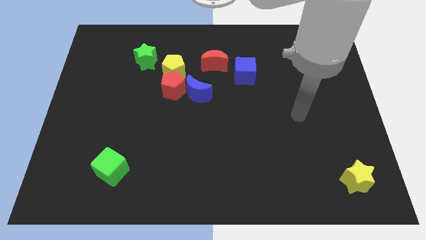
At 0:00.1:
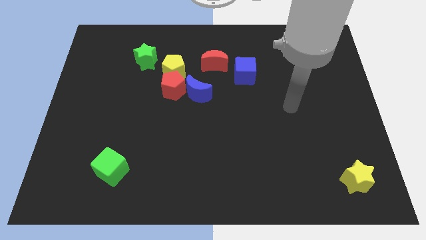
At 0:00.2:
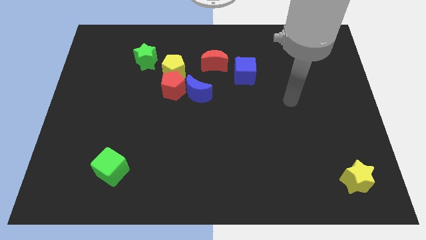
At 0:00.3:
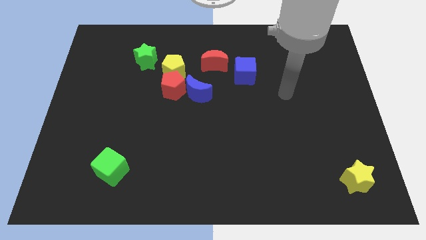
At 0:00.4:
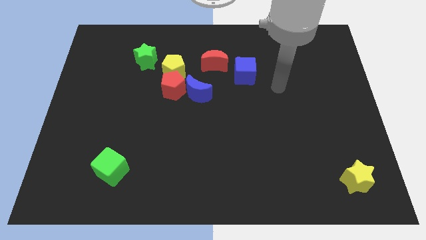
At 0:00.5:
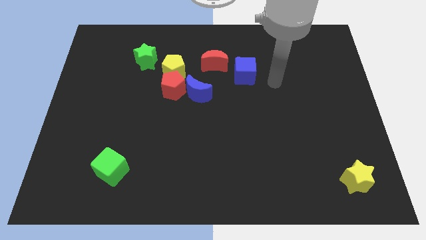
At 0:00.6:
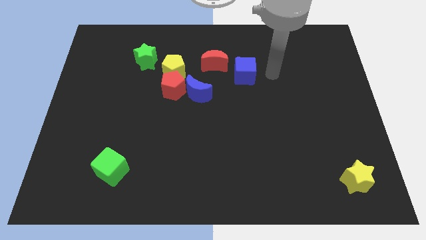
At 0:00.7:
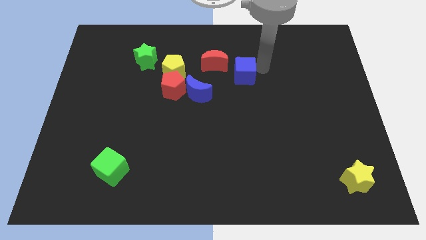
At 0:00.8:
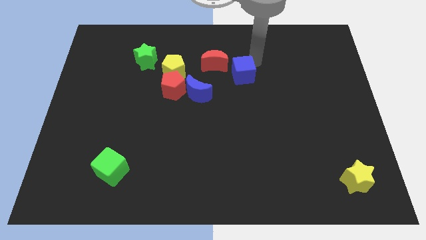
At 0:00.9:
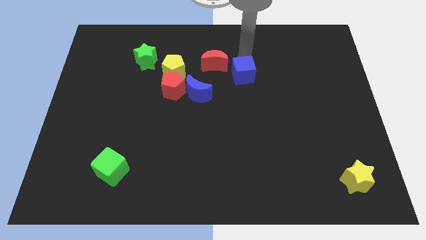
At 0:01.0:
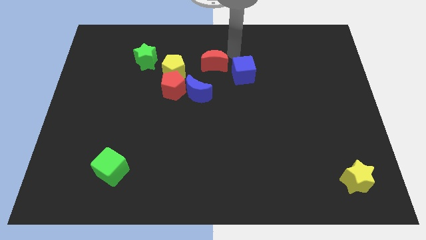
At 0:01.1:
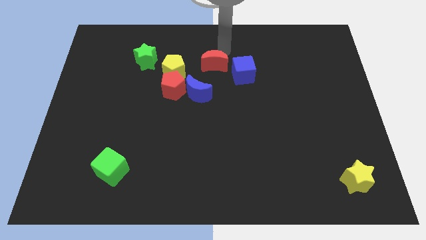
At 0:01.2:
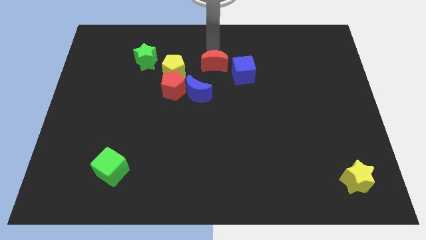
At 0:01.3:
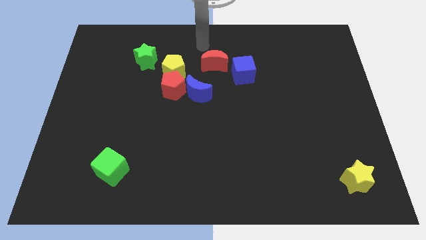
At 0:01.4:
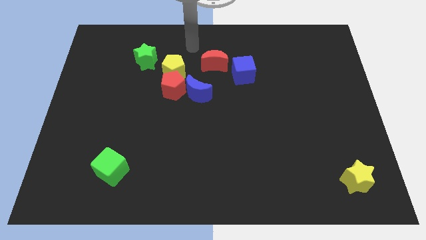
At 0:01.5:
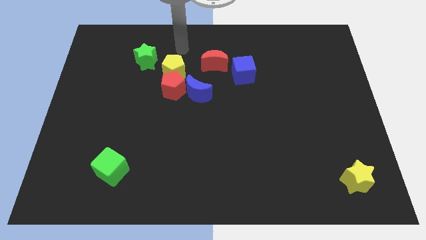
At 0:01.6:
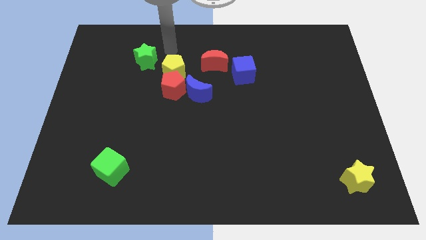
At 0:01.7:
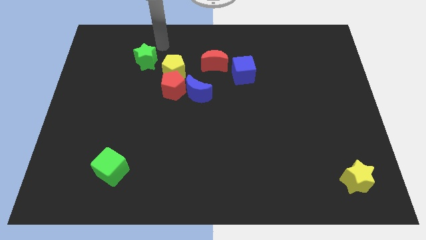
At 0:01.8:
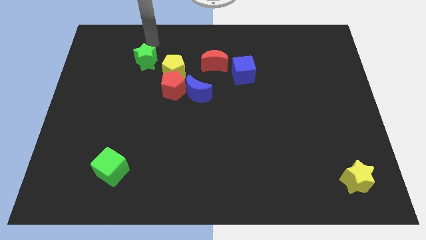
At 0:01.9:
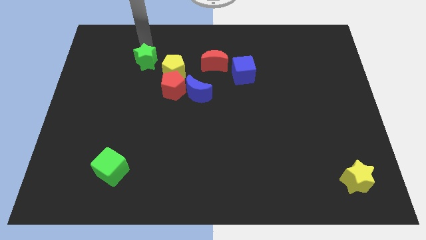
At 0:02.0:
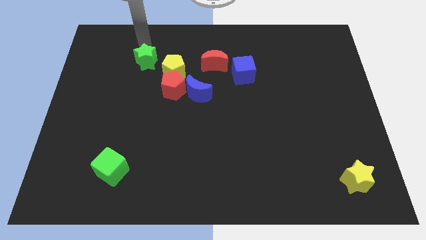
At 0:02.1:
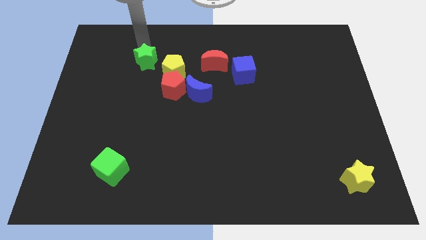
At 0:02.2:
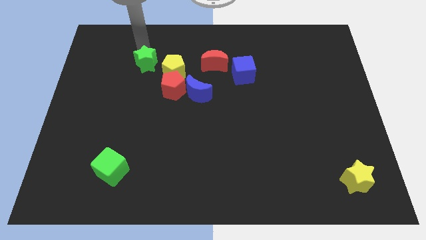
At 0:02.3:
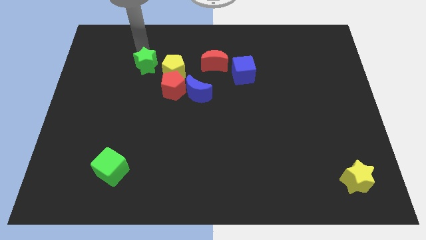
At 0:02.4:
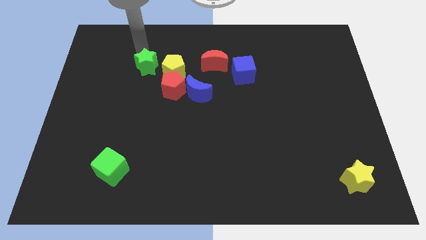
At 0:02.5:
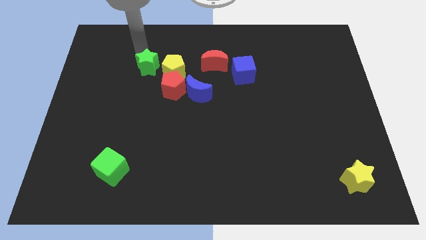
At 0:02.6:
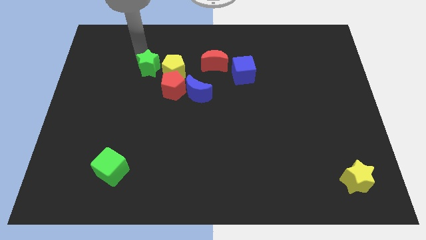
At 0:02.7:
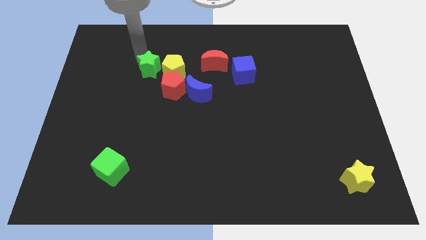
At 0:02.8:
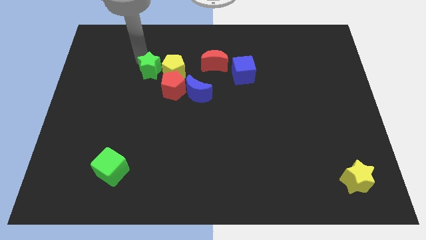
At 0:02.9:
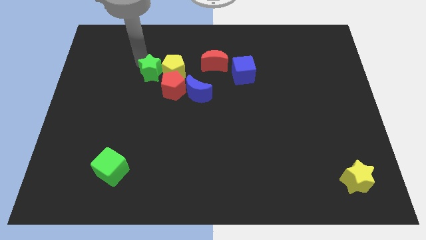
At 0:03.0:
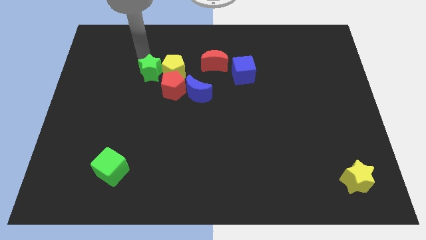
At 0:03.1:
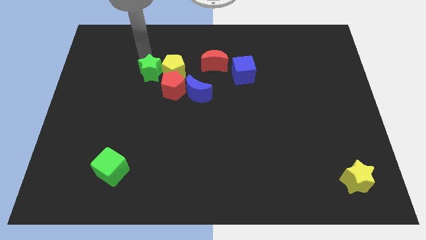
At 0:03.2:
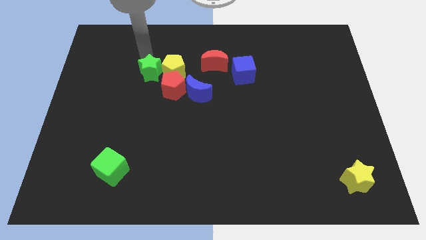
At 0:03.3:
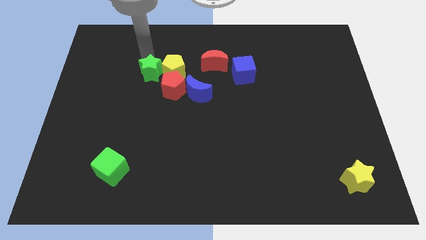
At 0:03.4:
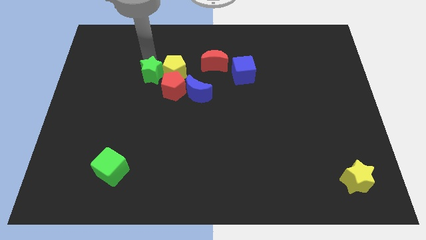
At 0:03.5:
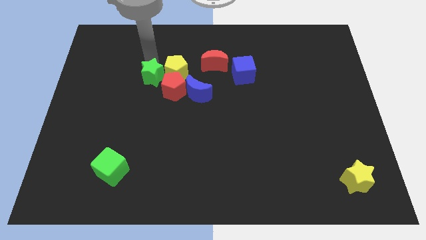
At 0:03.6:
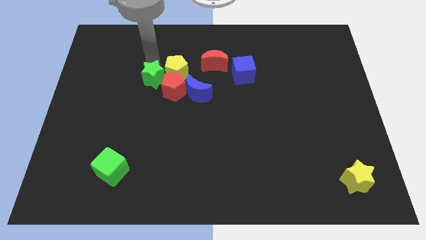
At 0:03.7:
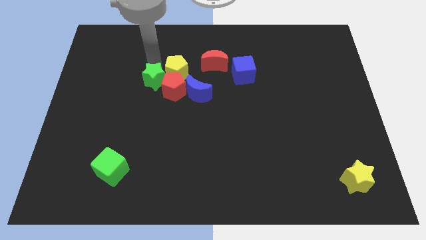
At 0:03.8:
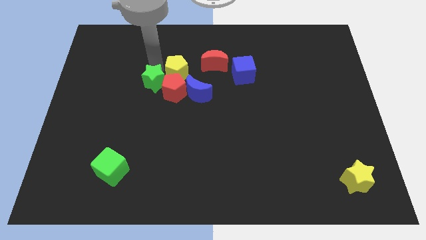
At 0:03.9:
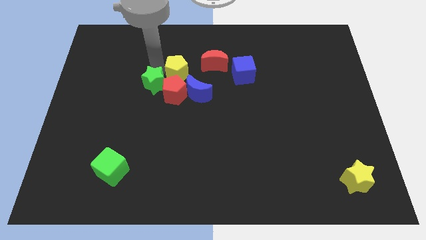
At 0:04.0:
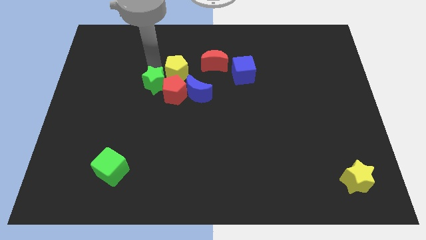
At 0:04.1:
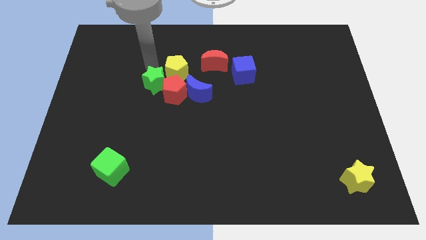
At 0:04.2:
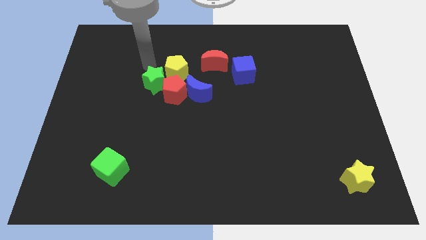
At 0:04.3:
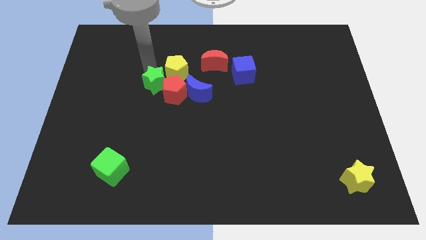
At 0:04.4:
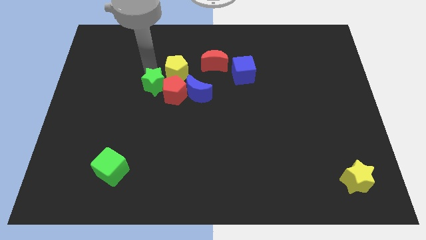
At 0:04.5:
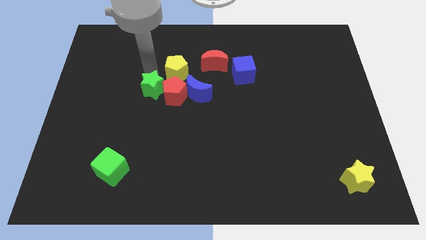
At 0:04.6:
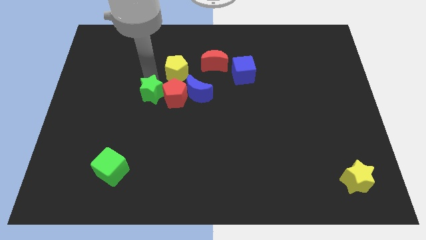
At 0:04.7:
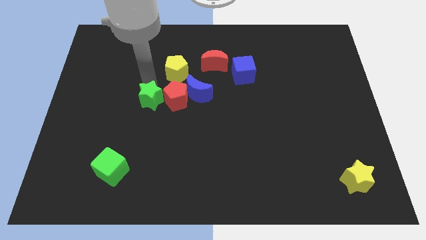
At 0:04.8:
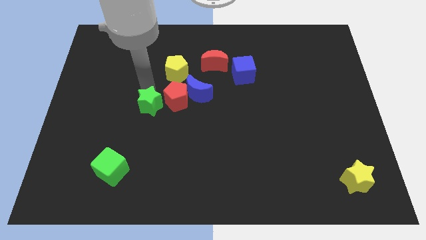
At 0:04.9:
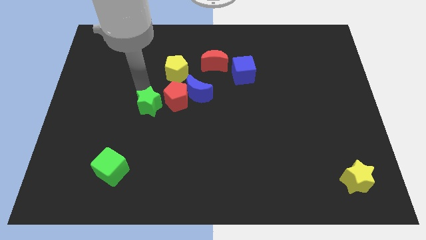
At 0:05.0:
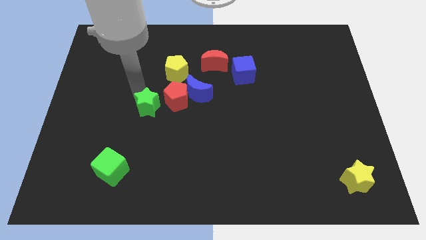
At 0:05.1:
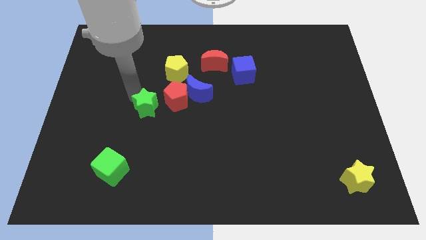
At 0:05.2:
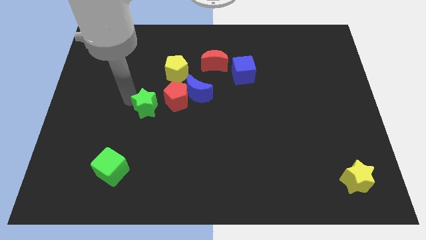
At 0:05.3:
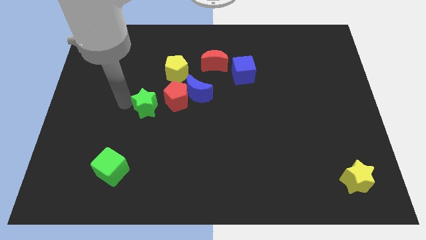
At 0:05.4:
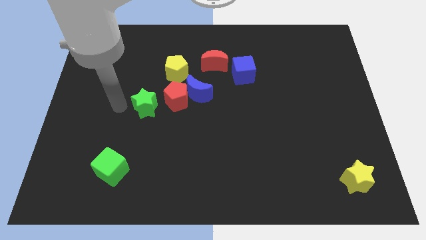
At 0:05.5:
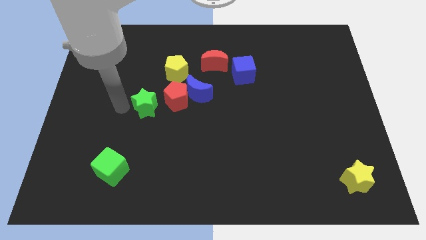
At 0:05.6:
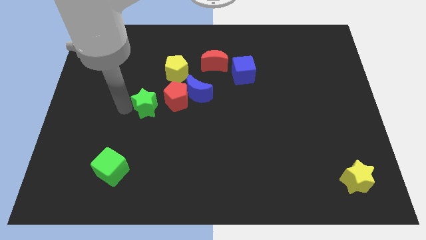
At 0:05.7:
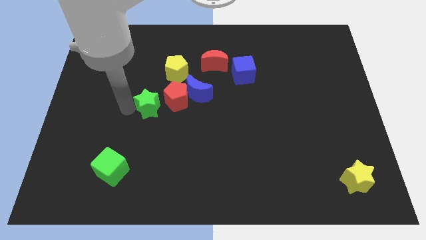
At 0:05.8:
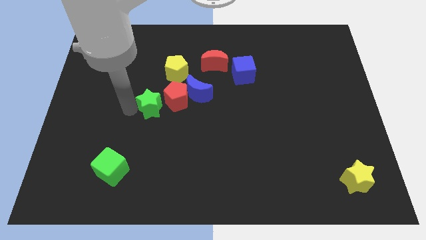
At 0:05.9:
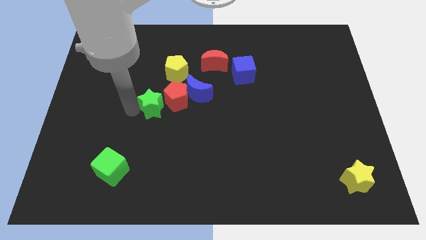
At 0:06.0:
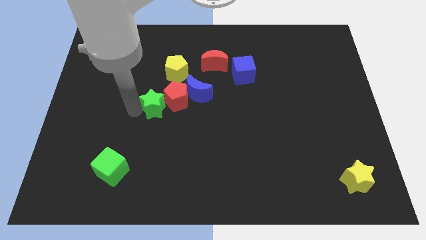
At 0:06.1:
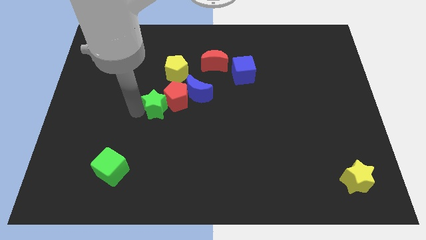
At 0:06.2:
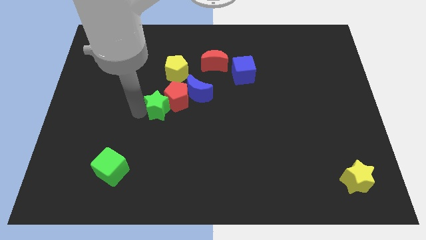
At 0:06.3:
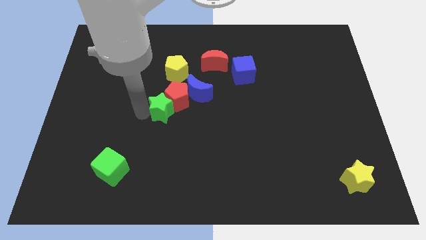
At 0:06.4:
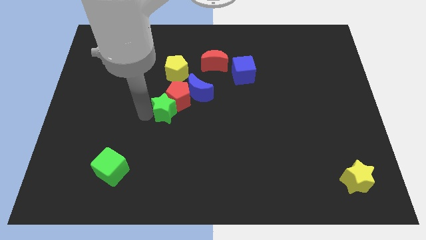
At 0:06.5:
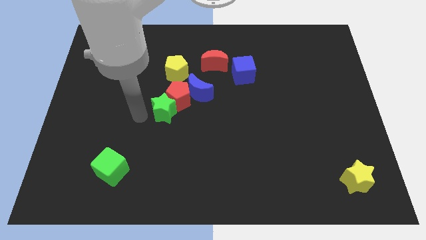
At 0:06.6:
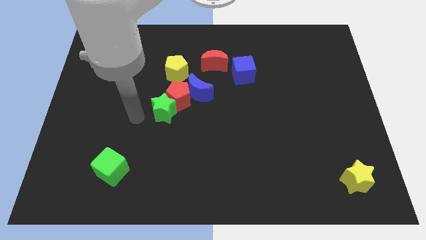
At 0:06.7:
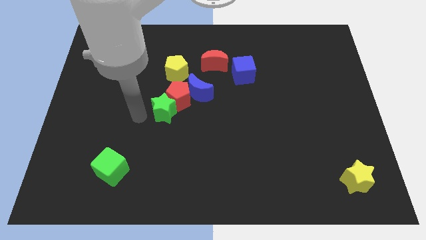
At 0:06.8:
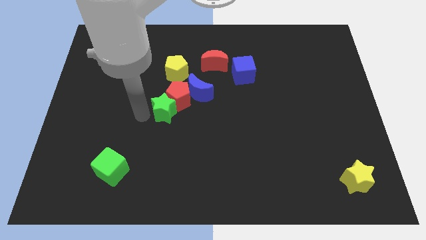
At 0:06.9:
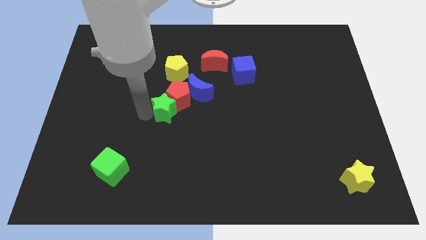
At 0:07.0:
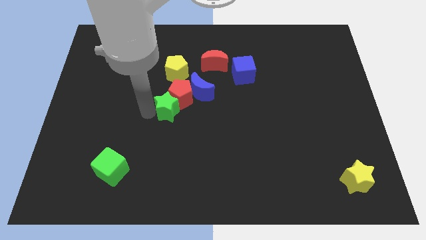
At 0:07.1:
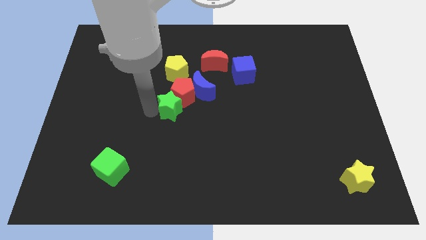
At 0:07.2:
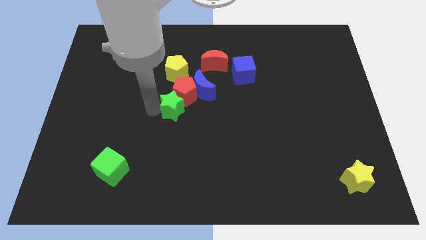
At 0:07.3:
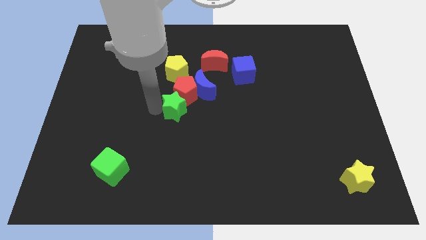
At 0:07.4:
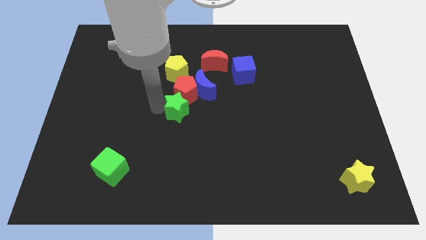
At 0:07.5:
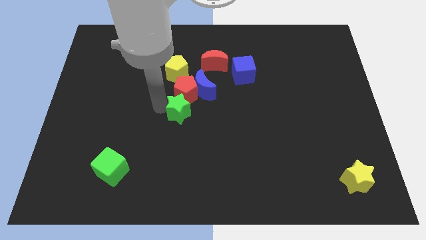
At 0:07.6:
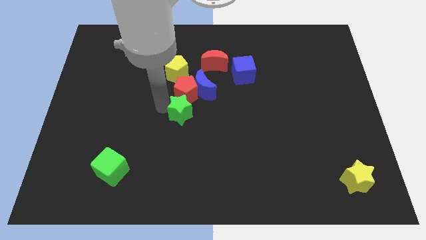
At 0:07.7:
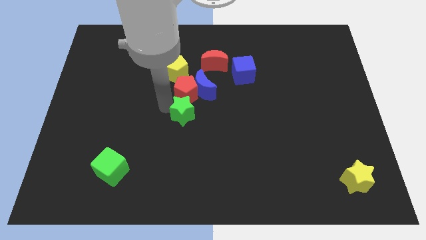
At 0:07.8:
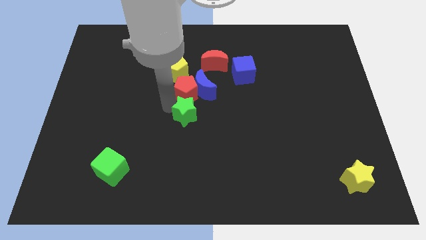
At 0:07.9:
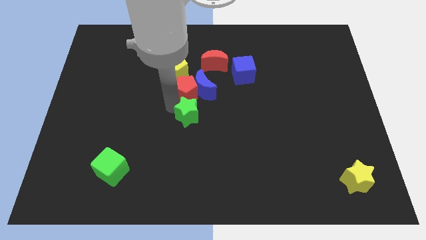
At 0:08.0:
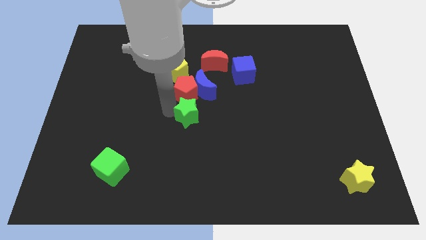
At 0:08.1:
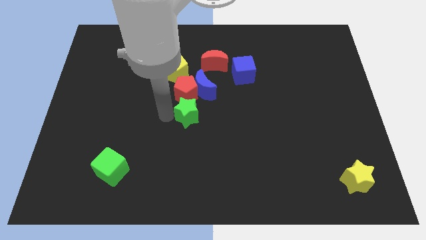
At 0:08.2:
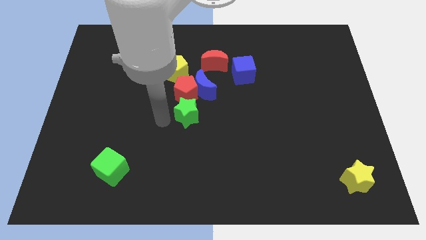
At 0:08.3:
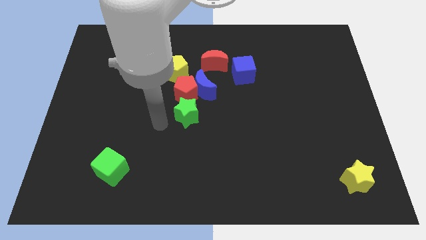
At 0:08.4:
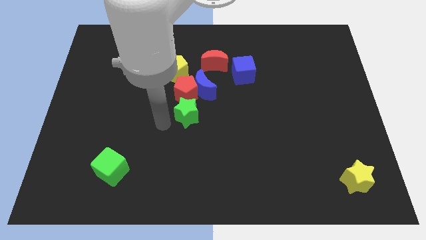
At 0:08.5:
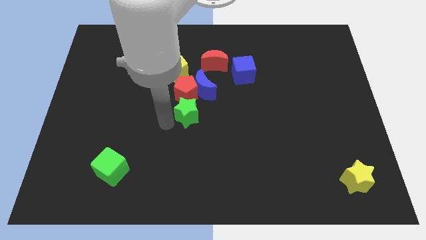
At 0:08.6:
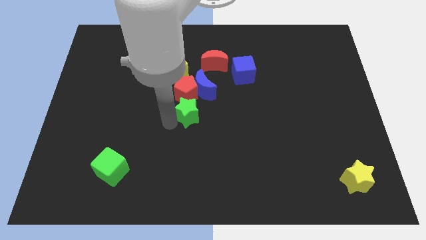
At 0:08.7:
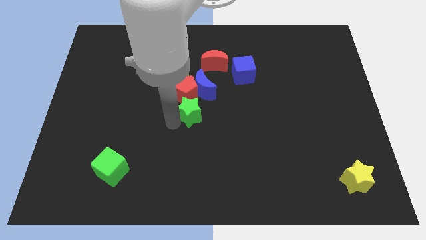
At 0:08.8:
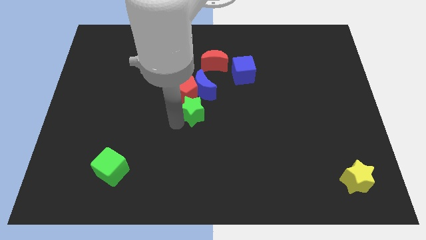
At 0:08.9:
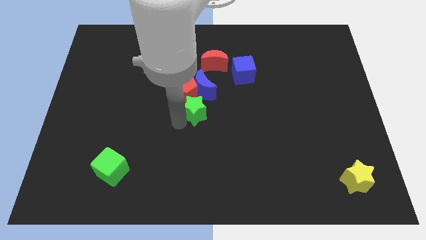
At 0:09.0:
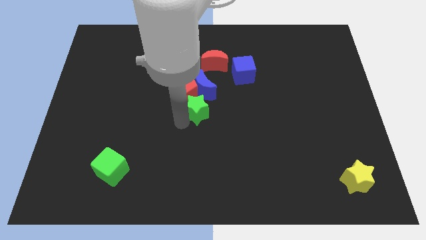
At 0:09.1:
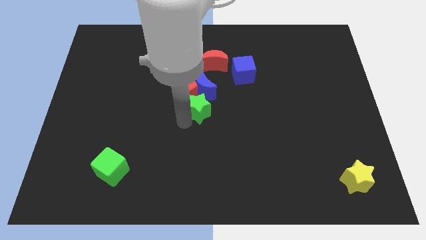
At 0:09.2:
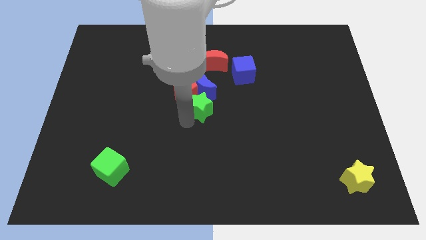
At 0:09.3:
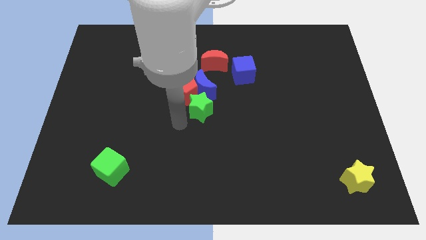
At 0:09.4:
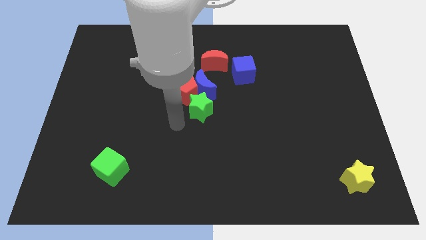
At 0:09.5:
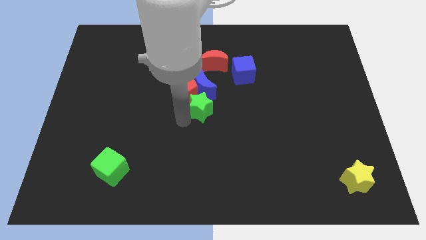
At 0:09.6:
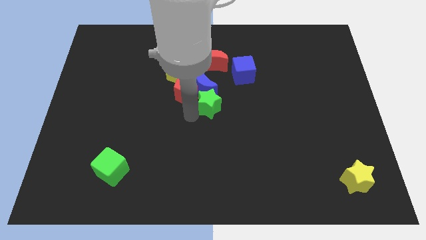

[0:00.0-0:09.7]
slide the green star to the right of the red pentagon
